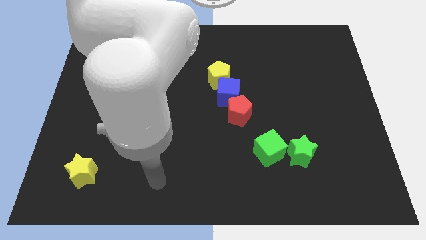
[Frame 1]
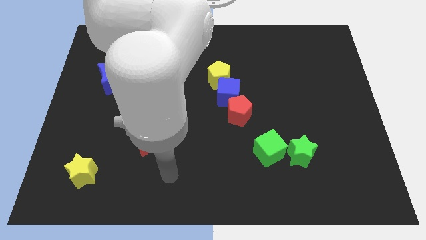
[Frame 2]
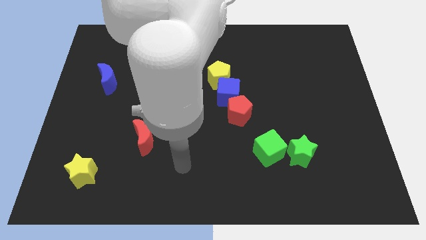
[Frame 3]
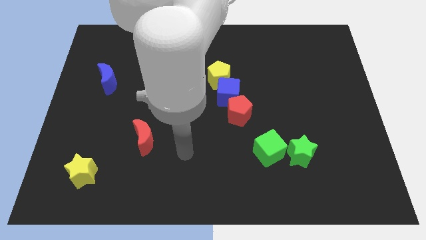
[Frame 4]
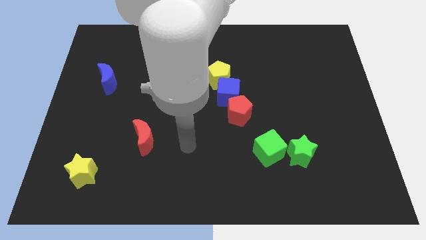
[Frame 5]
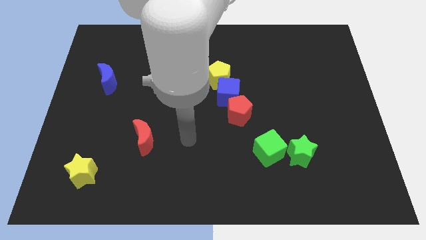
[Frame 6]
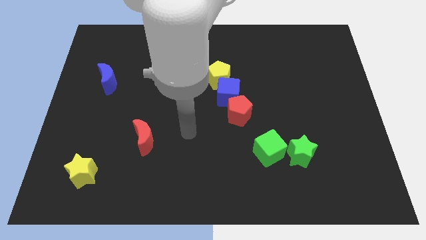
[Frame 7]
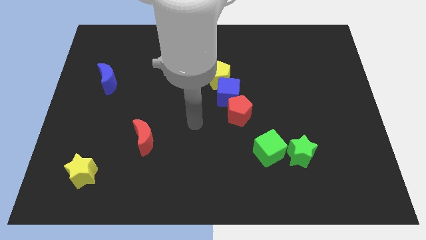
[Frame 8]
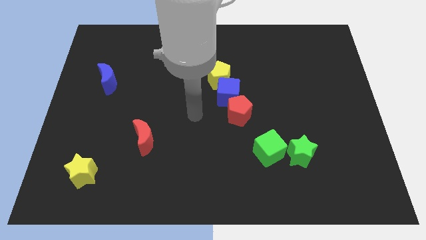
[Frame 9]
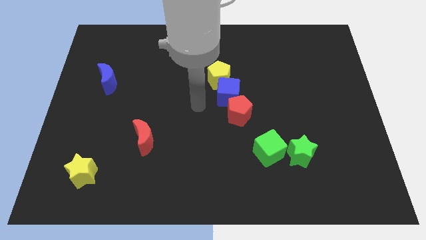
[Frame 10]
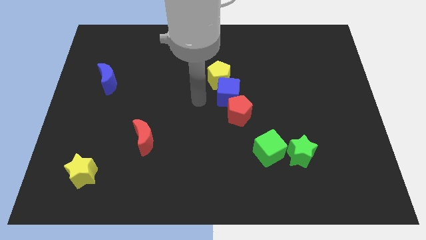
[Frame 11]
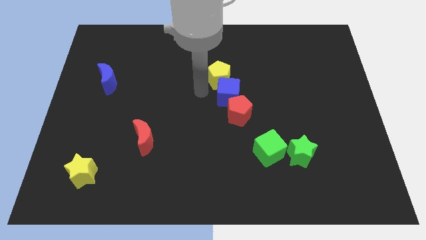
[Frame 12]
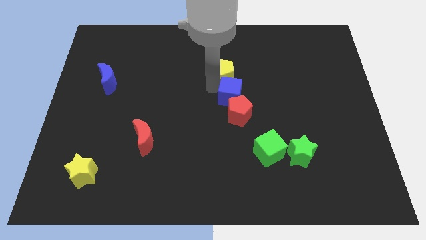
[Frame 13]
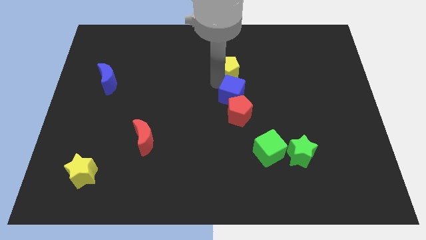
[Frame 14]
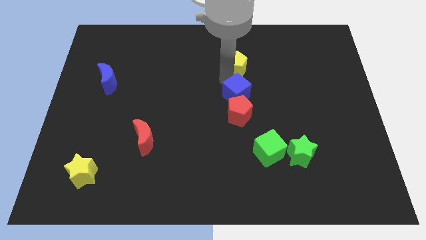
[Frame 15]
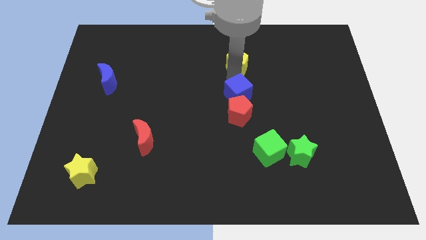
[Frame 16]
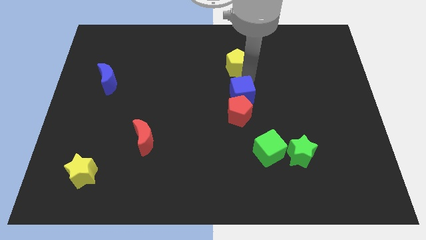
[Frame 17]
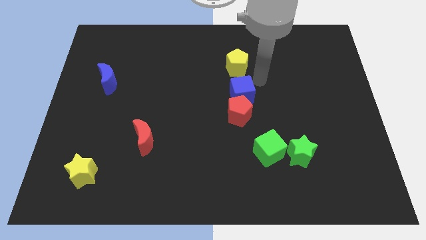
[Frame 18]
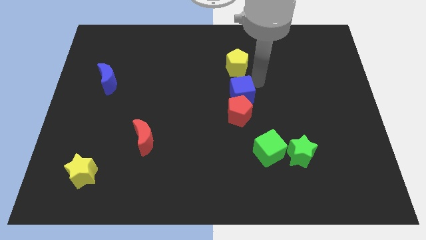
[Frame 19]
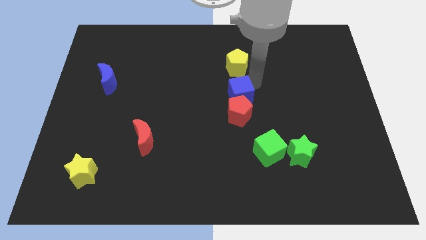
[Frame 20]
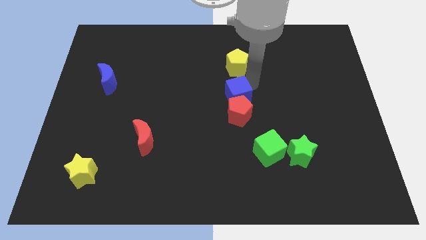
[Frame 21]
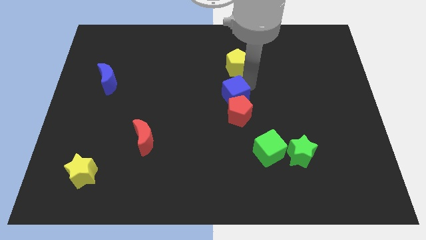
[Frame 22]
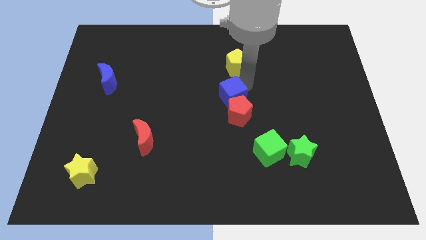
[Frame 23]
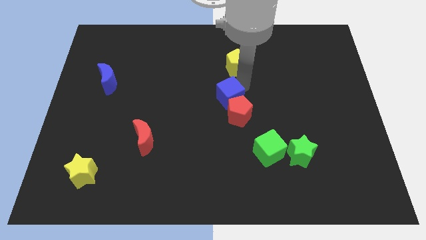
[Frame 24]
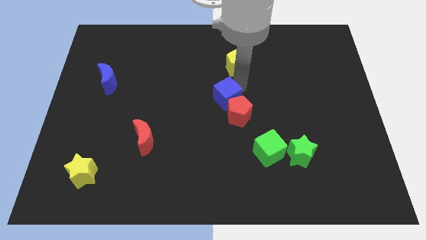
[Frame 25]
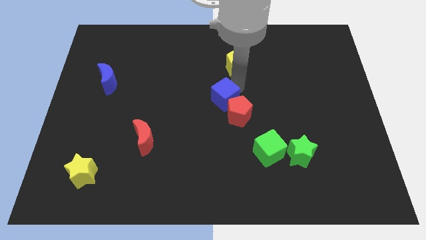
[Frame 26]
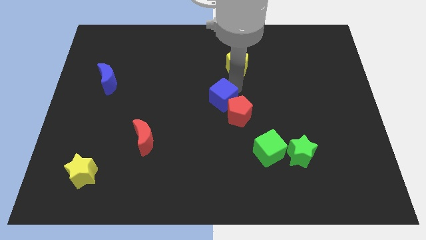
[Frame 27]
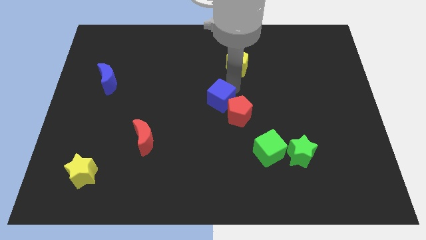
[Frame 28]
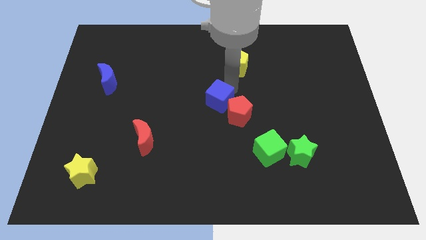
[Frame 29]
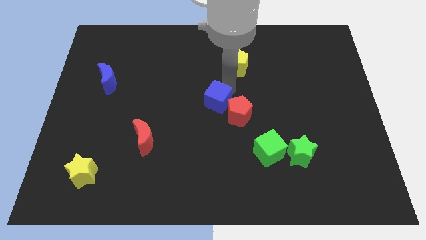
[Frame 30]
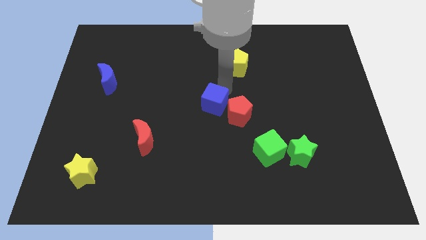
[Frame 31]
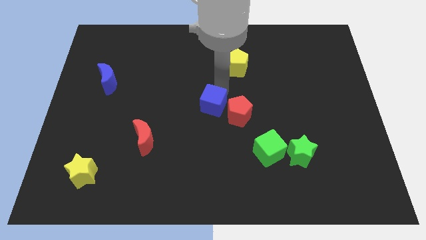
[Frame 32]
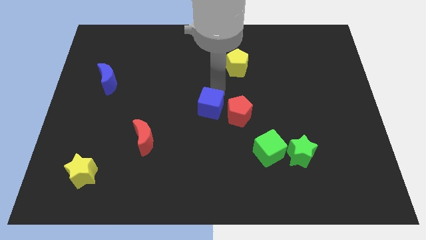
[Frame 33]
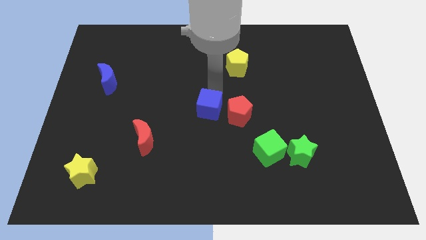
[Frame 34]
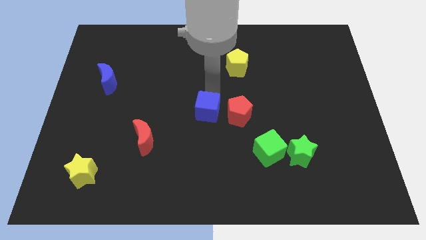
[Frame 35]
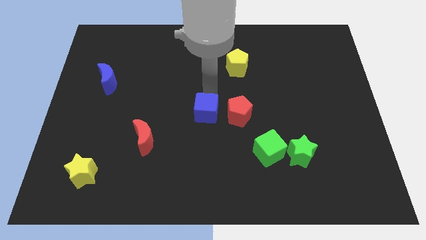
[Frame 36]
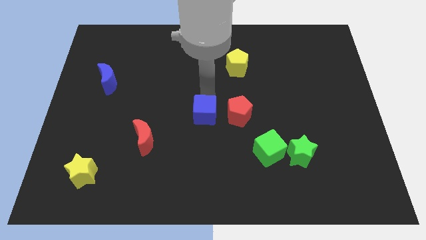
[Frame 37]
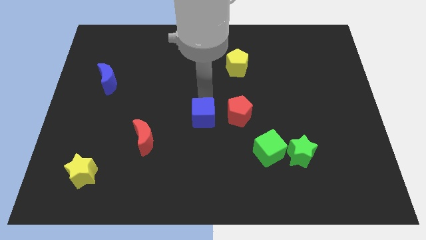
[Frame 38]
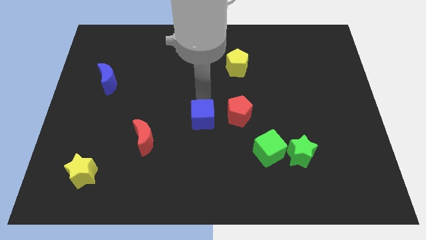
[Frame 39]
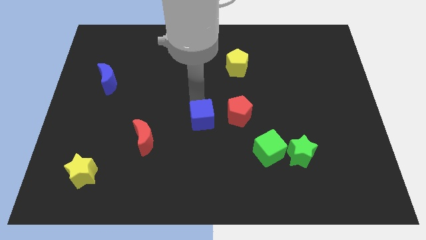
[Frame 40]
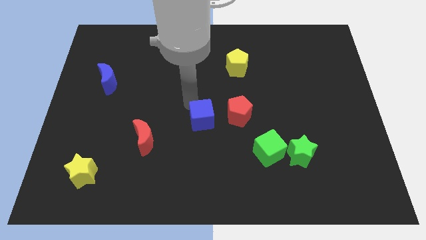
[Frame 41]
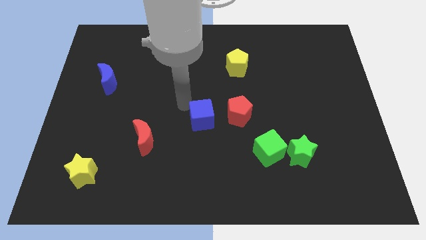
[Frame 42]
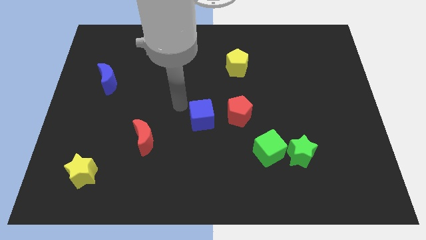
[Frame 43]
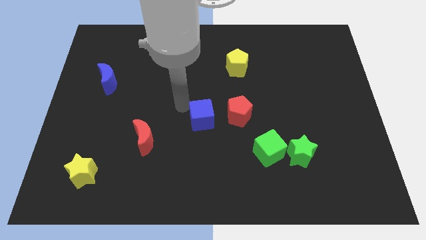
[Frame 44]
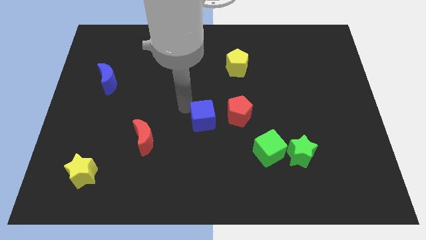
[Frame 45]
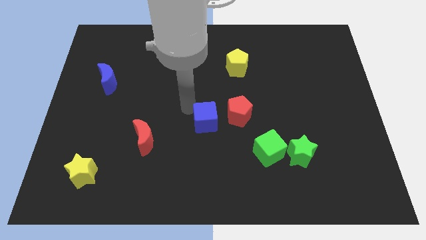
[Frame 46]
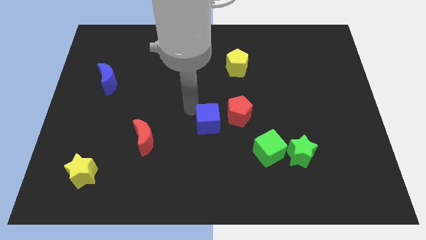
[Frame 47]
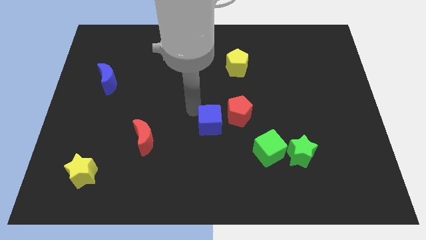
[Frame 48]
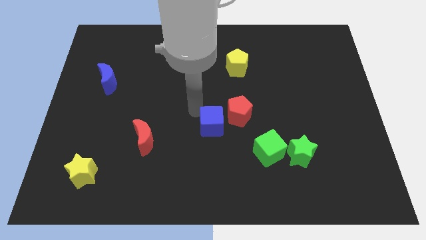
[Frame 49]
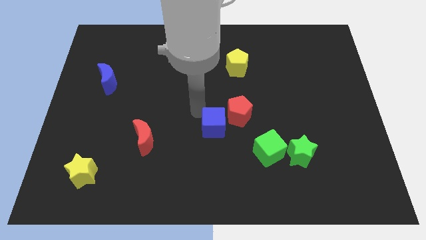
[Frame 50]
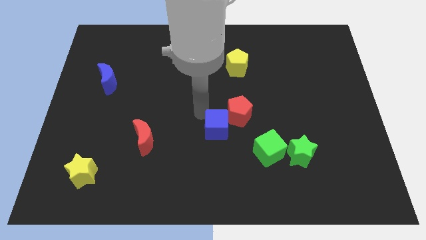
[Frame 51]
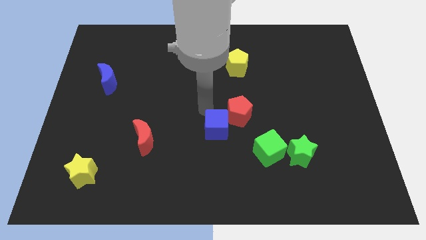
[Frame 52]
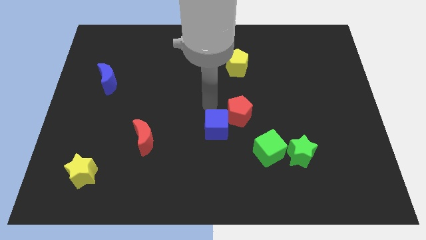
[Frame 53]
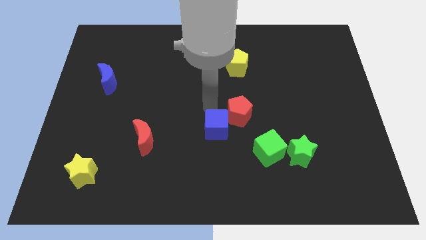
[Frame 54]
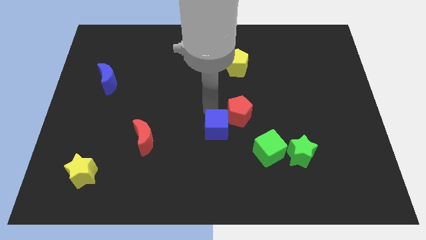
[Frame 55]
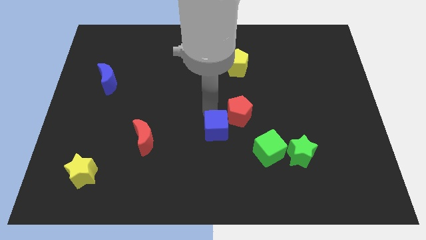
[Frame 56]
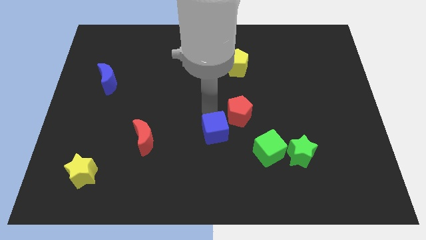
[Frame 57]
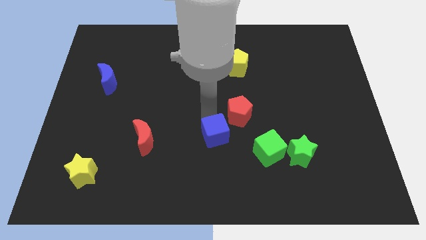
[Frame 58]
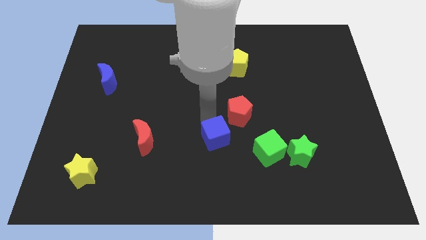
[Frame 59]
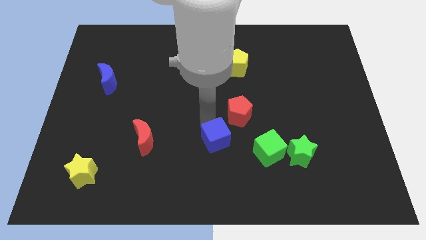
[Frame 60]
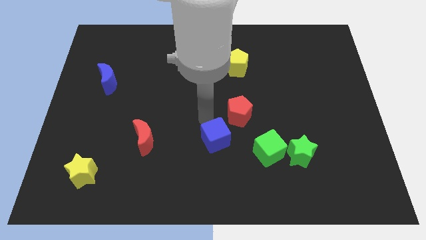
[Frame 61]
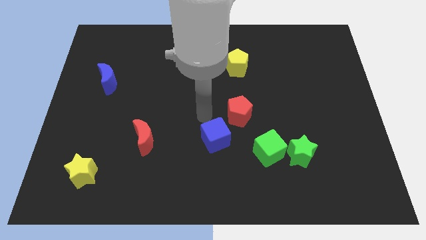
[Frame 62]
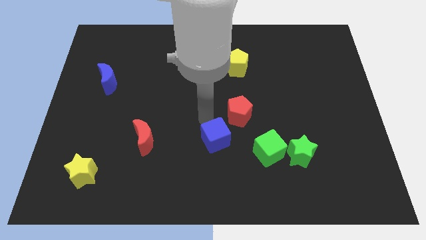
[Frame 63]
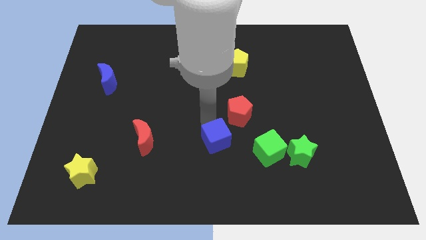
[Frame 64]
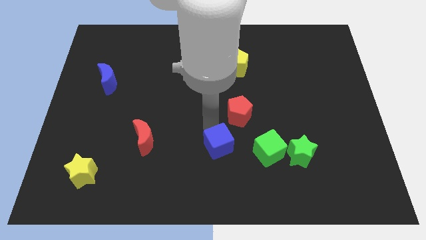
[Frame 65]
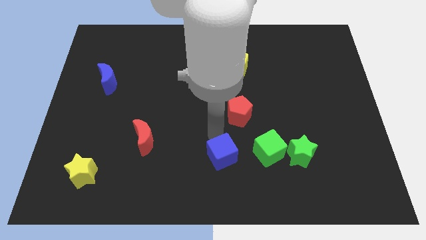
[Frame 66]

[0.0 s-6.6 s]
slide the blue cube to the bottom side

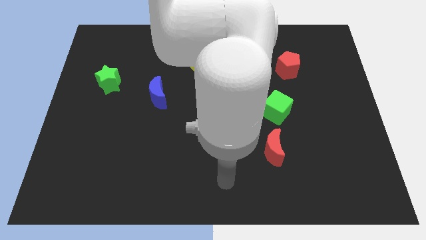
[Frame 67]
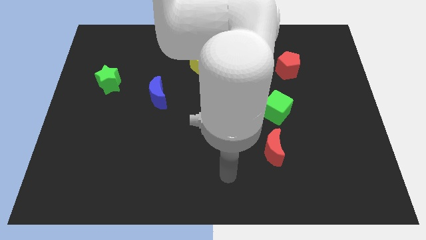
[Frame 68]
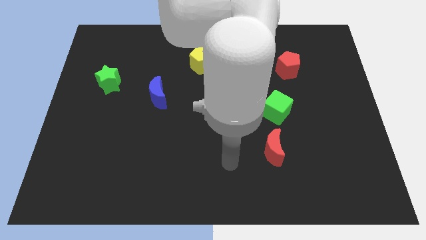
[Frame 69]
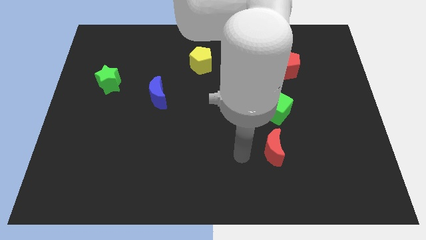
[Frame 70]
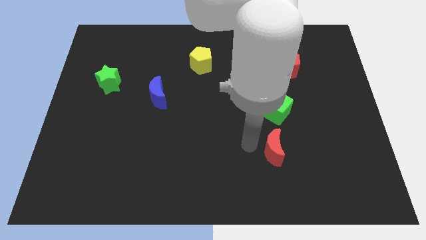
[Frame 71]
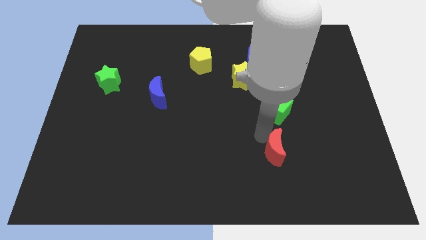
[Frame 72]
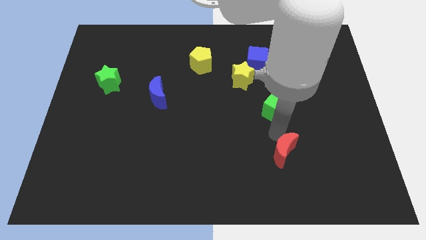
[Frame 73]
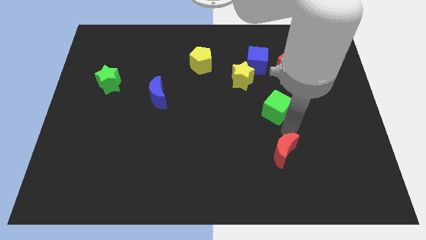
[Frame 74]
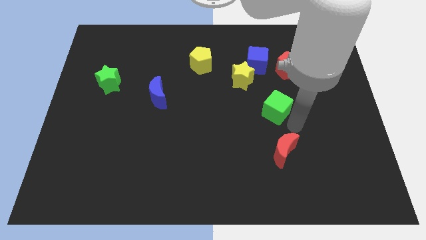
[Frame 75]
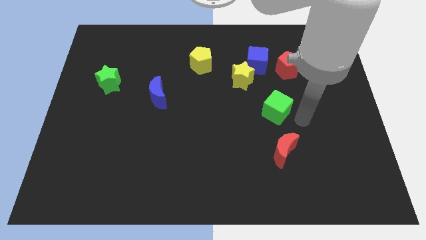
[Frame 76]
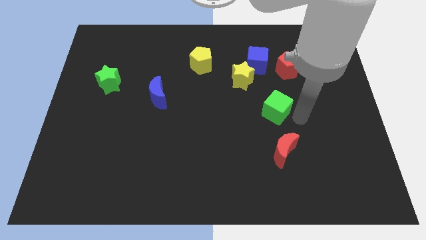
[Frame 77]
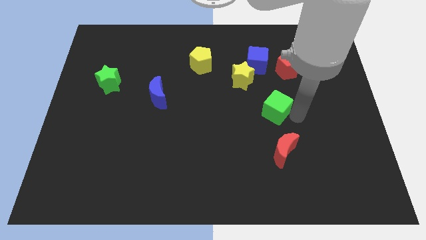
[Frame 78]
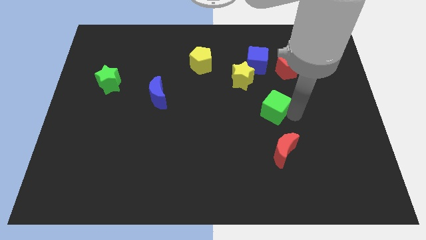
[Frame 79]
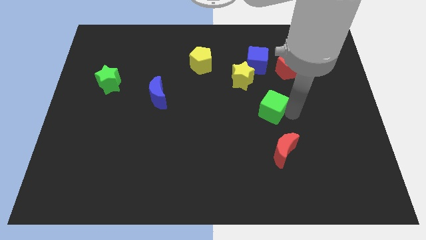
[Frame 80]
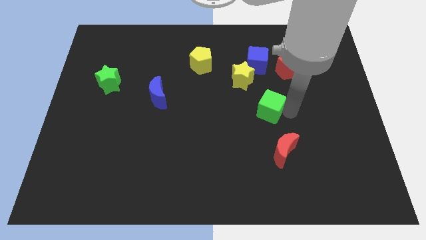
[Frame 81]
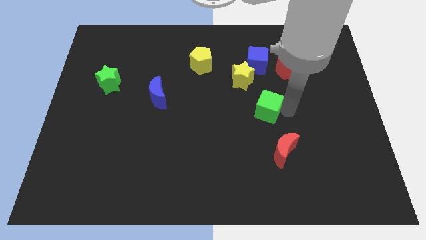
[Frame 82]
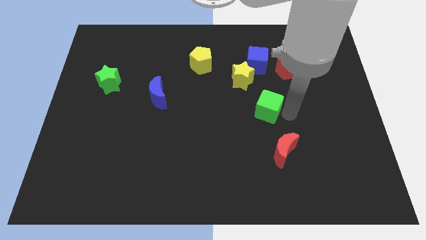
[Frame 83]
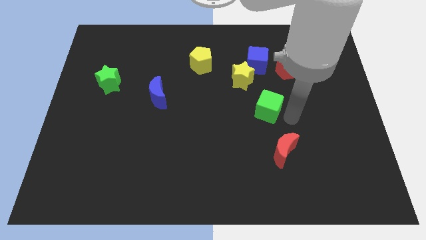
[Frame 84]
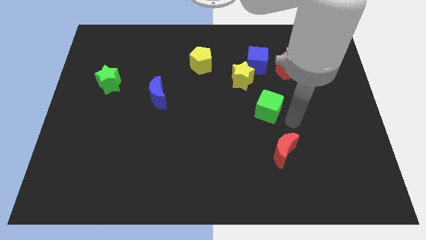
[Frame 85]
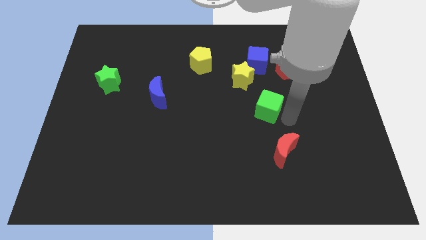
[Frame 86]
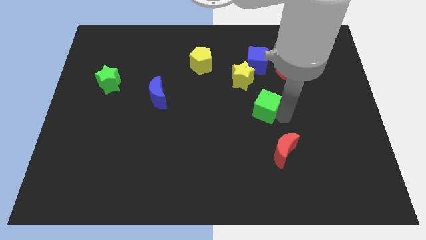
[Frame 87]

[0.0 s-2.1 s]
push the green cube to the middle
